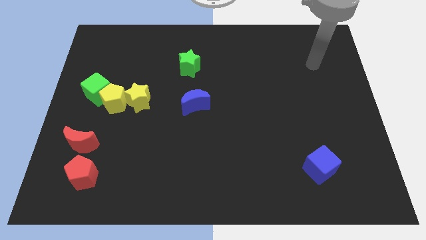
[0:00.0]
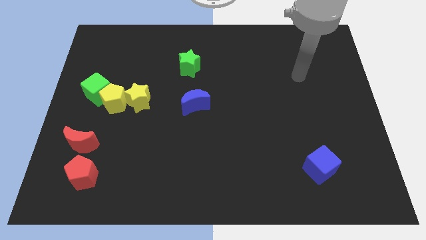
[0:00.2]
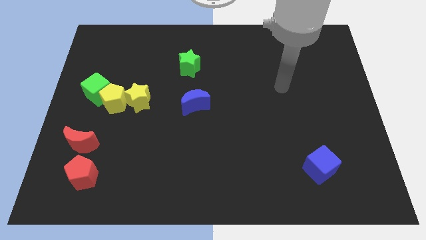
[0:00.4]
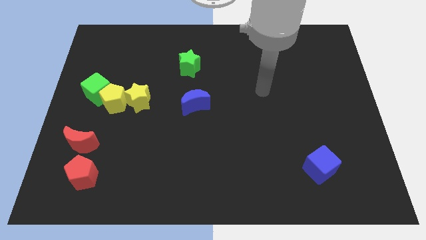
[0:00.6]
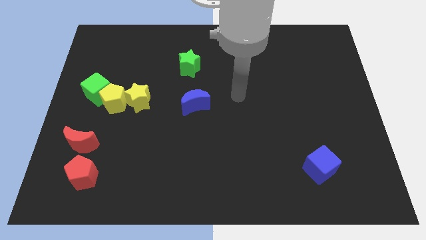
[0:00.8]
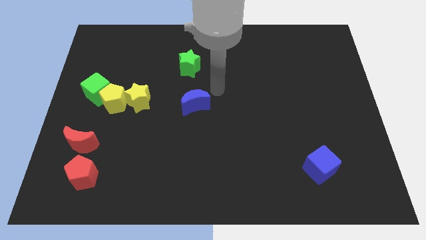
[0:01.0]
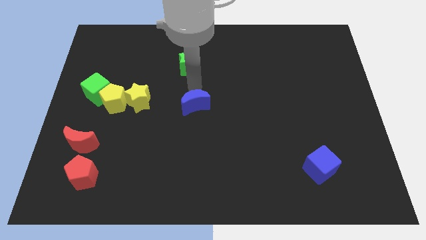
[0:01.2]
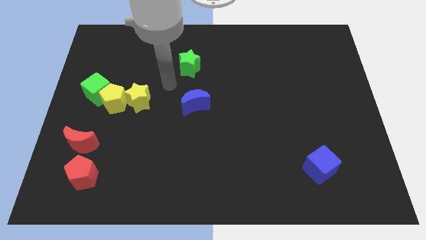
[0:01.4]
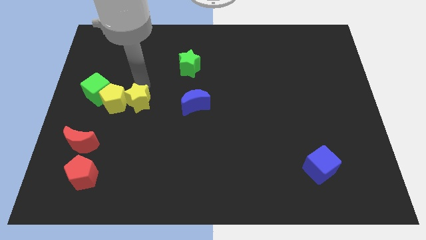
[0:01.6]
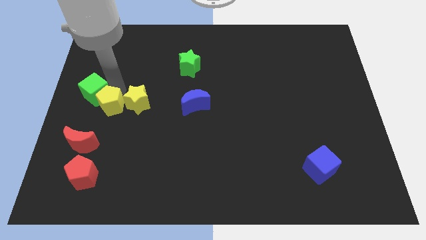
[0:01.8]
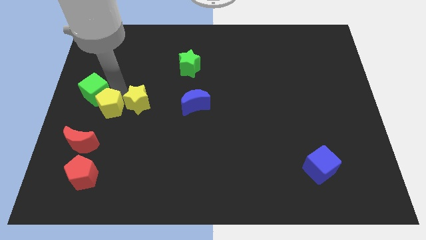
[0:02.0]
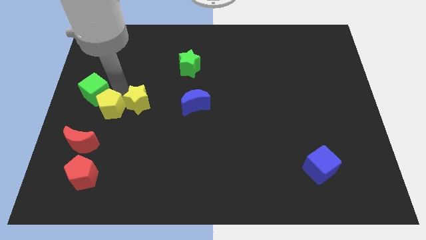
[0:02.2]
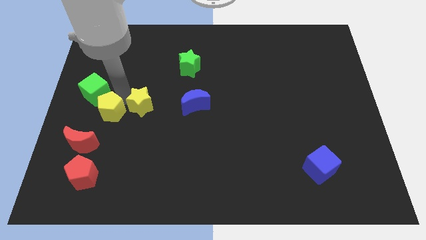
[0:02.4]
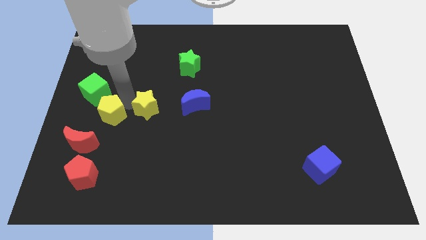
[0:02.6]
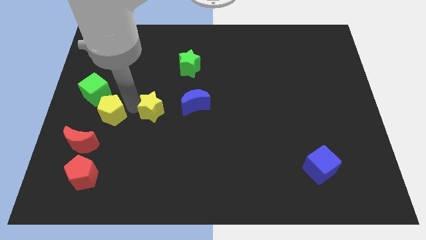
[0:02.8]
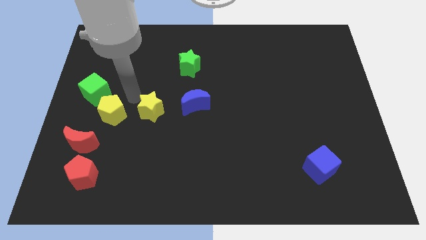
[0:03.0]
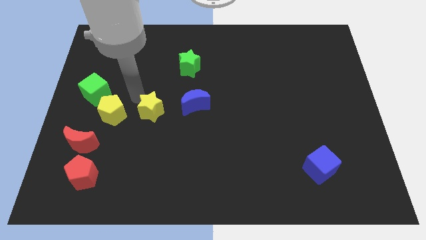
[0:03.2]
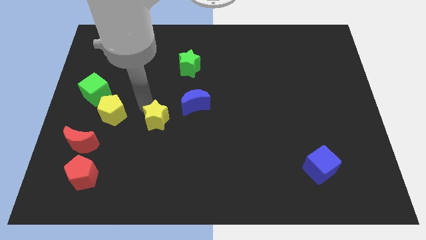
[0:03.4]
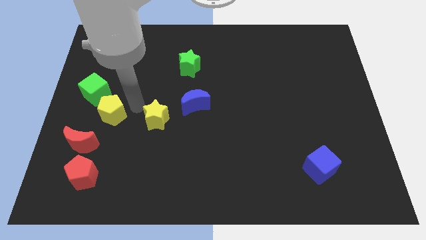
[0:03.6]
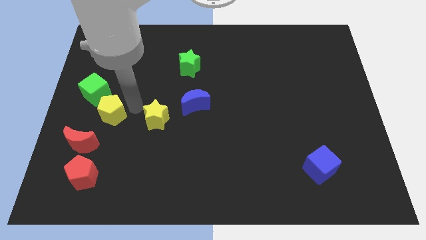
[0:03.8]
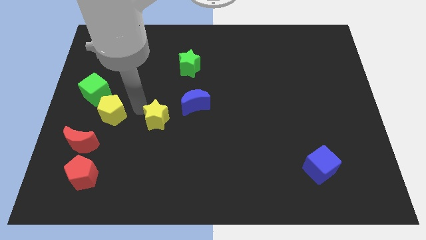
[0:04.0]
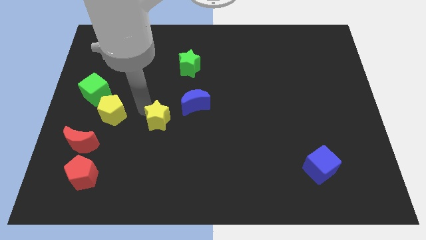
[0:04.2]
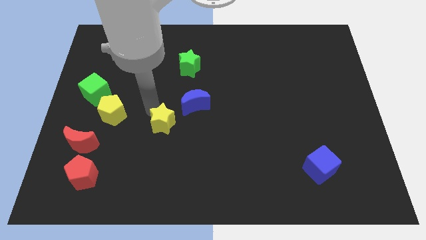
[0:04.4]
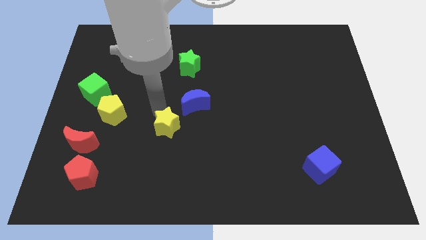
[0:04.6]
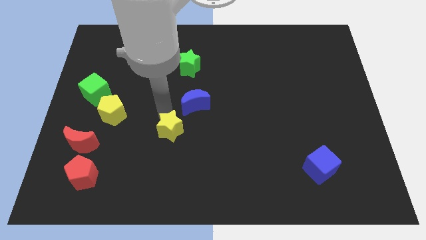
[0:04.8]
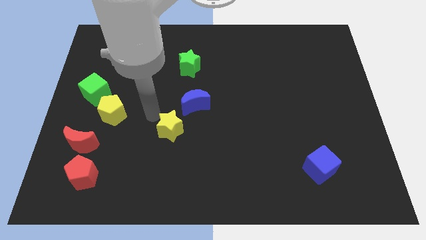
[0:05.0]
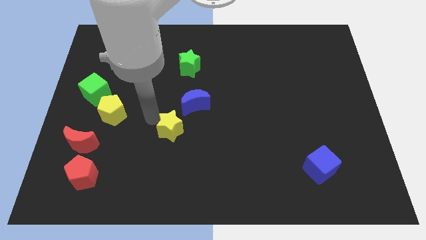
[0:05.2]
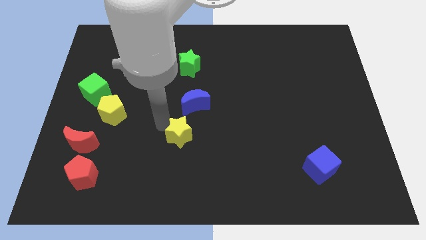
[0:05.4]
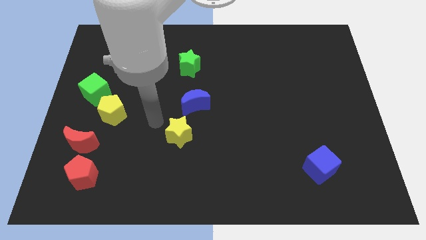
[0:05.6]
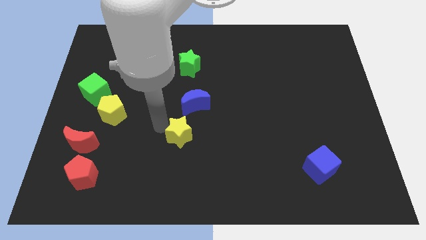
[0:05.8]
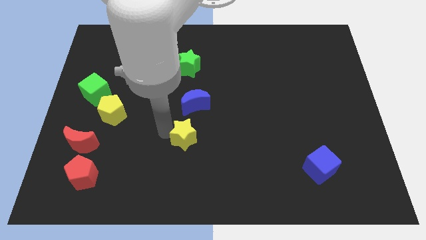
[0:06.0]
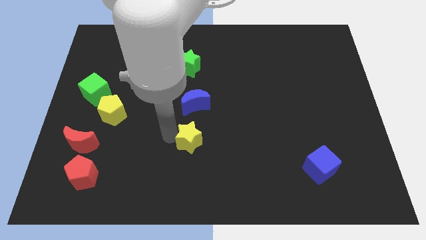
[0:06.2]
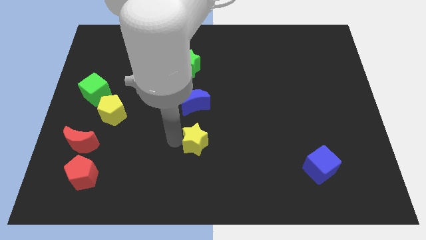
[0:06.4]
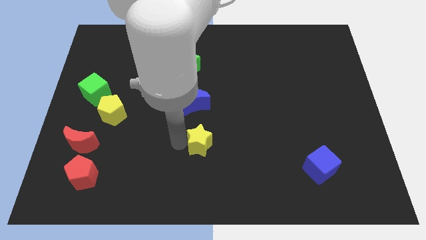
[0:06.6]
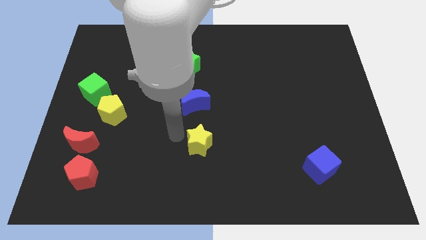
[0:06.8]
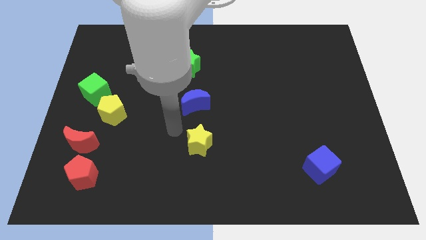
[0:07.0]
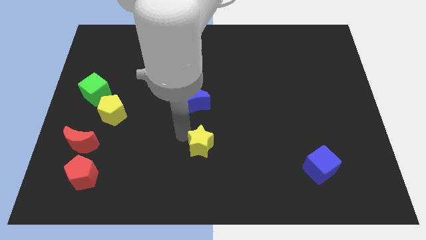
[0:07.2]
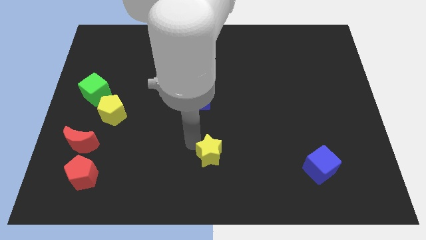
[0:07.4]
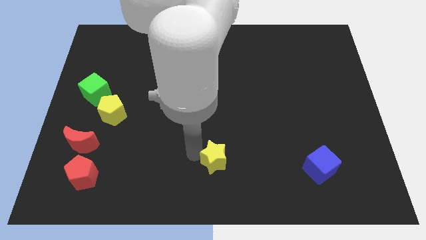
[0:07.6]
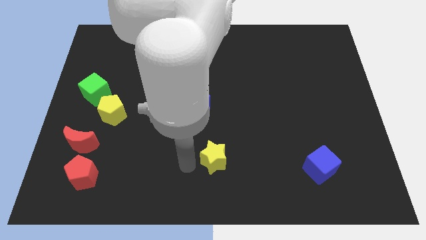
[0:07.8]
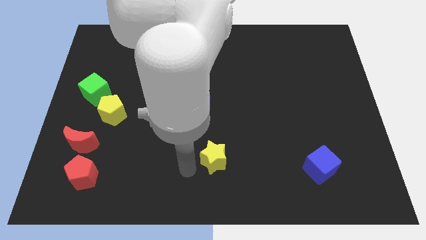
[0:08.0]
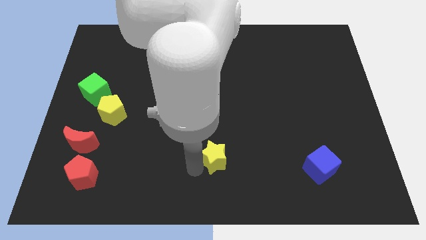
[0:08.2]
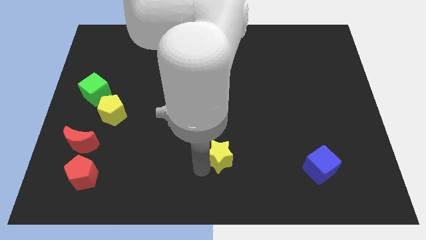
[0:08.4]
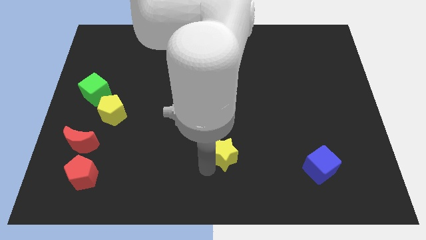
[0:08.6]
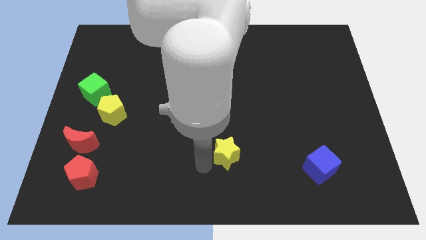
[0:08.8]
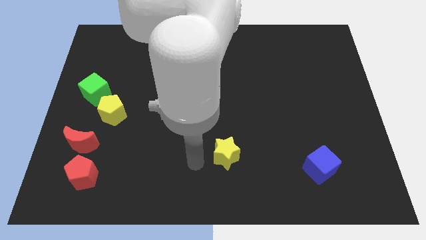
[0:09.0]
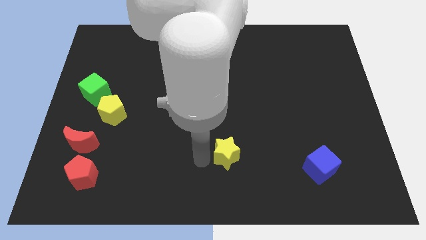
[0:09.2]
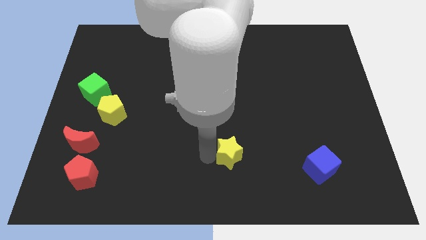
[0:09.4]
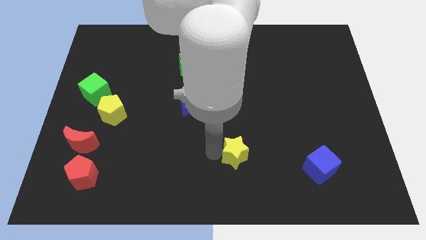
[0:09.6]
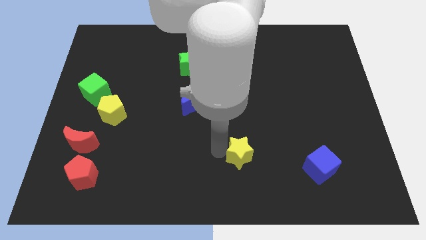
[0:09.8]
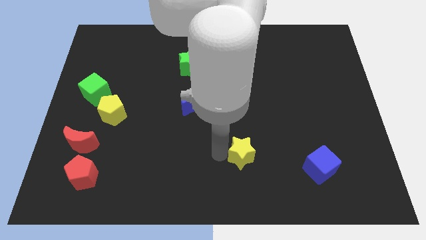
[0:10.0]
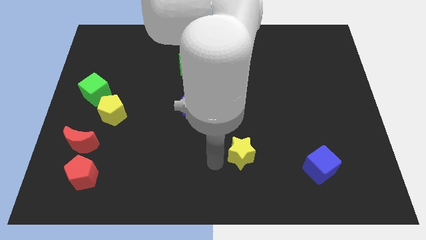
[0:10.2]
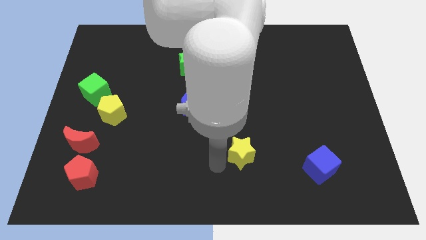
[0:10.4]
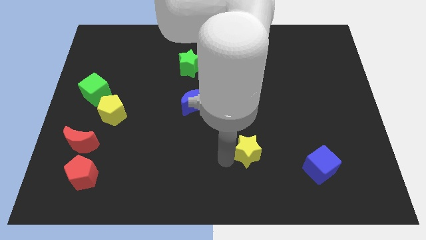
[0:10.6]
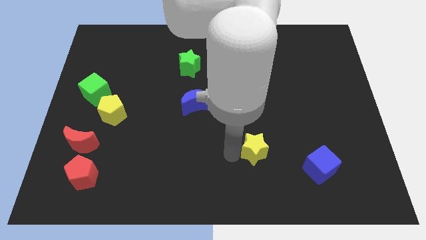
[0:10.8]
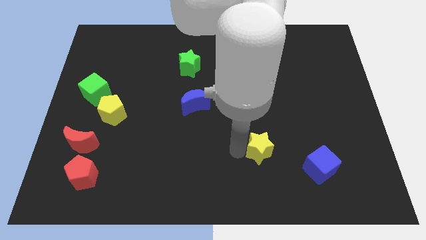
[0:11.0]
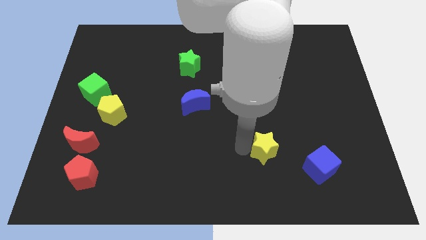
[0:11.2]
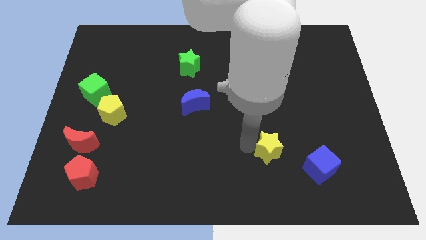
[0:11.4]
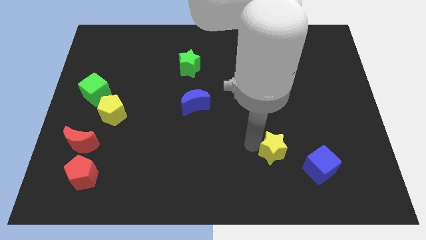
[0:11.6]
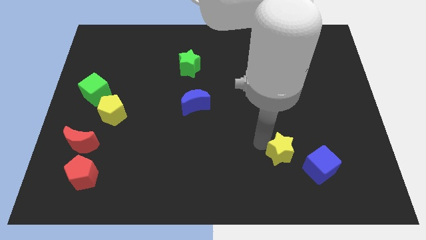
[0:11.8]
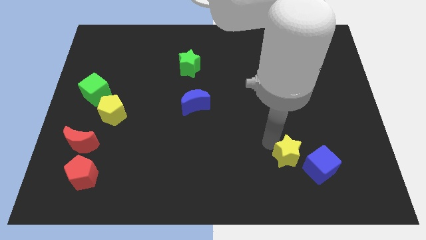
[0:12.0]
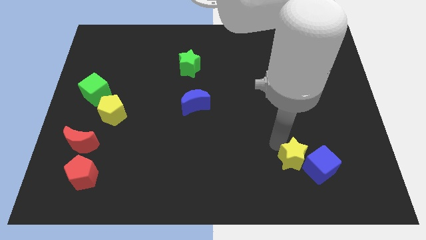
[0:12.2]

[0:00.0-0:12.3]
push the yellow star next to the blue cube

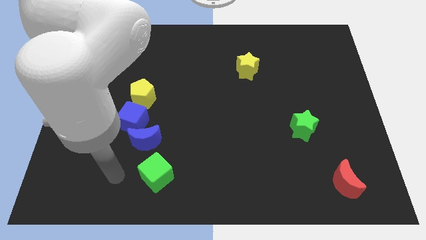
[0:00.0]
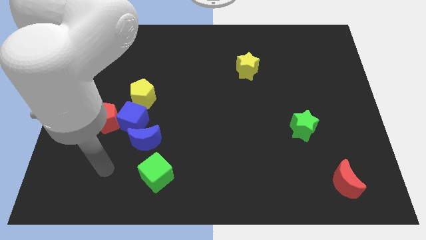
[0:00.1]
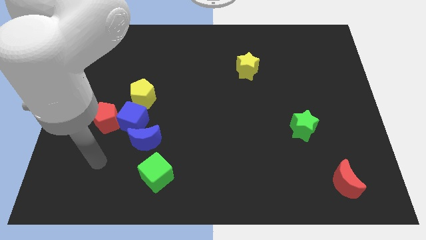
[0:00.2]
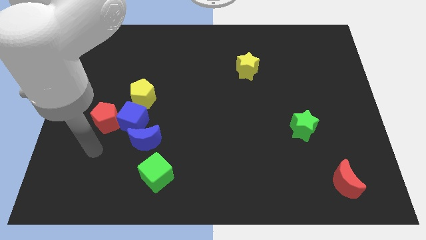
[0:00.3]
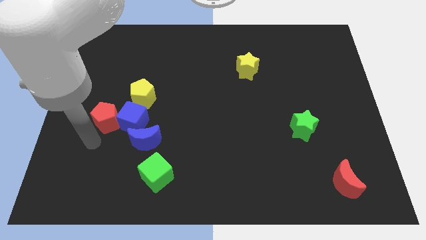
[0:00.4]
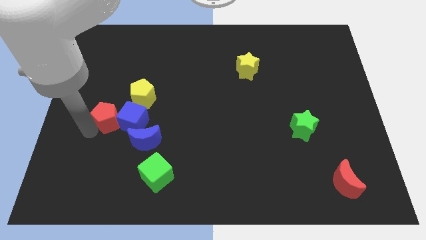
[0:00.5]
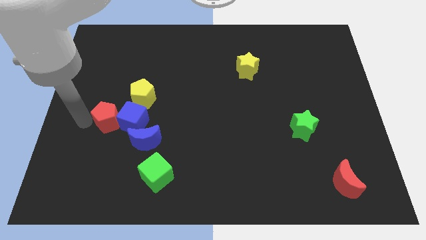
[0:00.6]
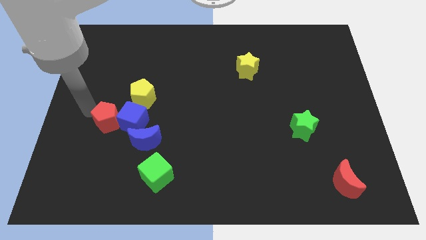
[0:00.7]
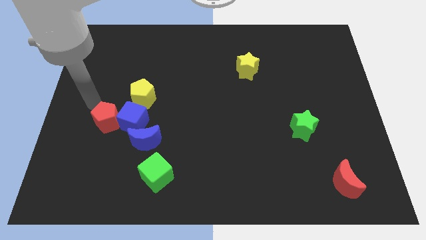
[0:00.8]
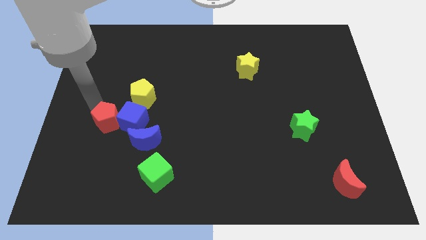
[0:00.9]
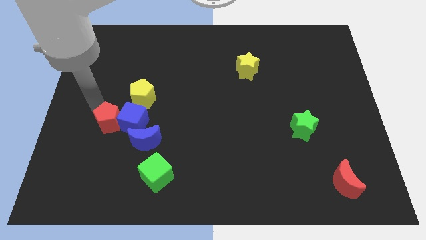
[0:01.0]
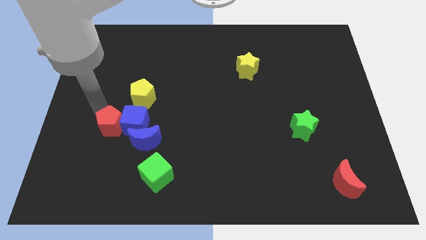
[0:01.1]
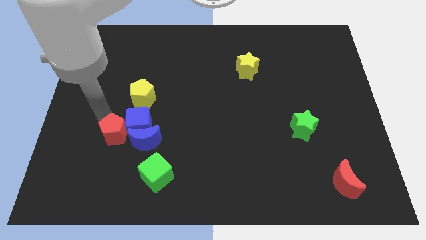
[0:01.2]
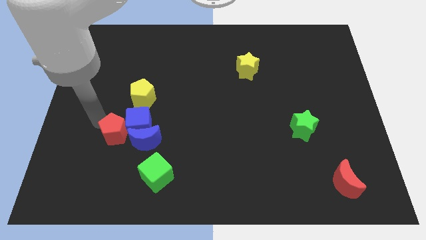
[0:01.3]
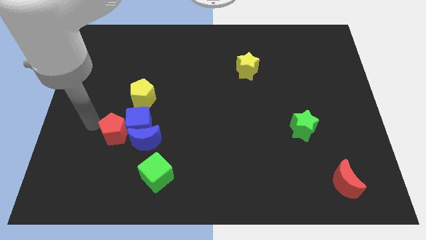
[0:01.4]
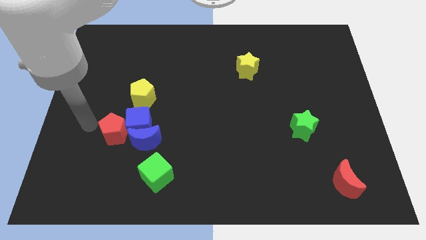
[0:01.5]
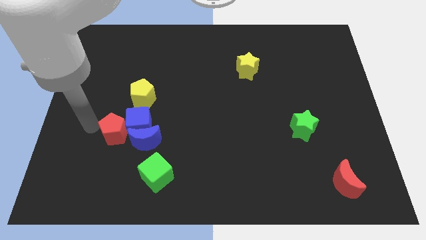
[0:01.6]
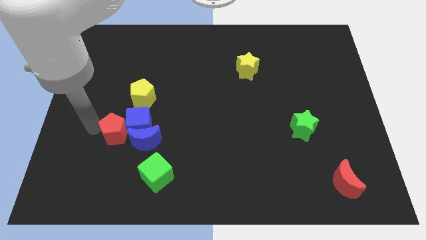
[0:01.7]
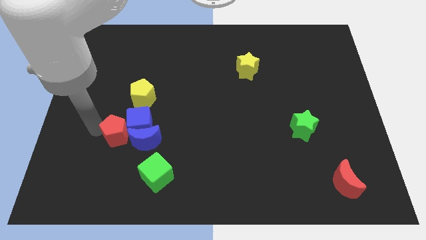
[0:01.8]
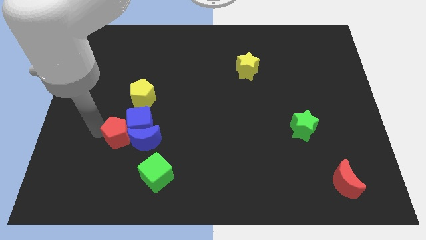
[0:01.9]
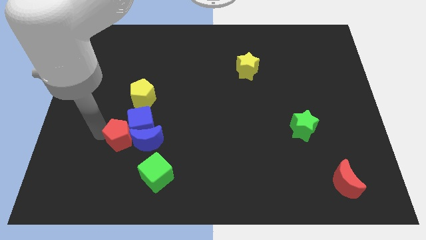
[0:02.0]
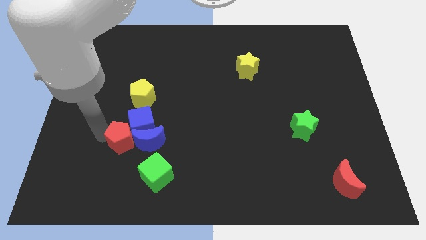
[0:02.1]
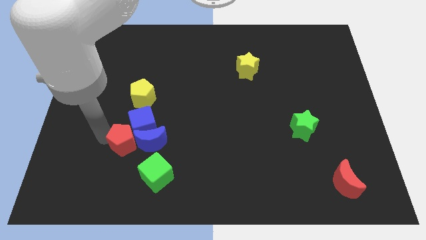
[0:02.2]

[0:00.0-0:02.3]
push the red pentagon next to the blue moon
